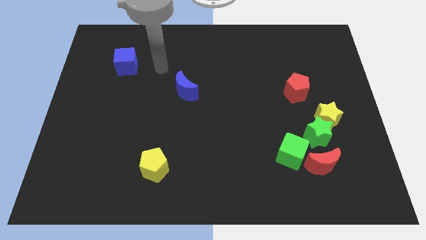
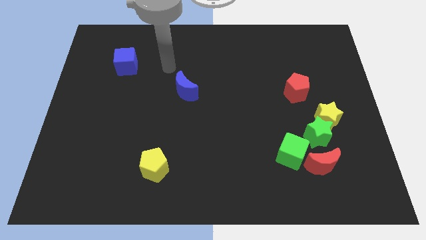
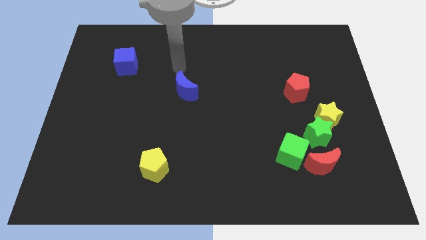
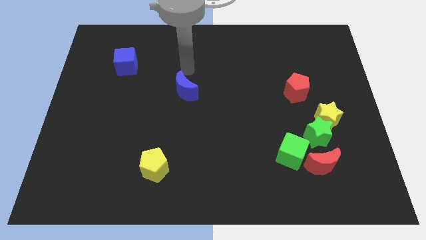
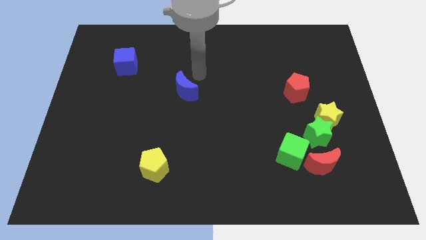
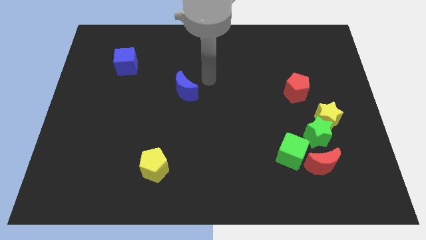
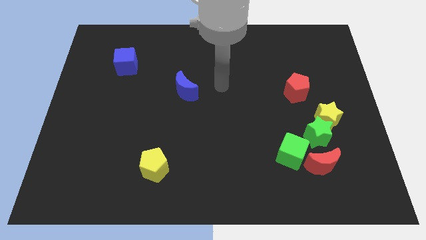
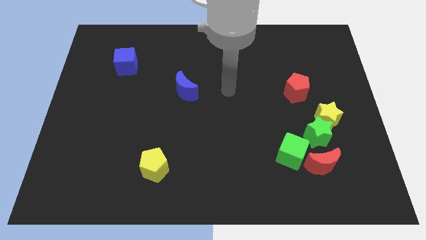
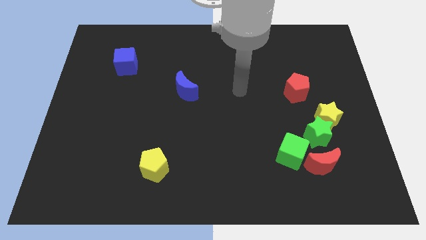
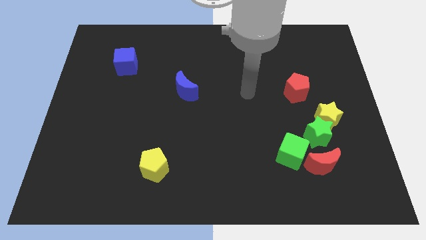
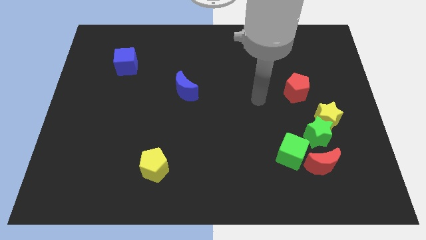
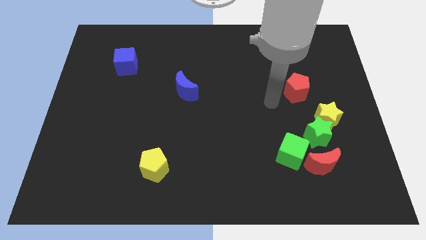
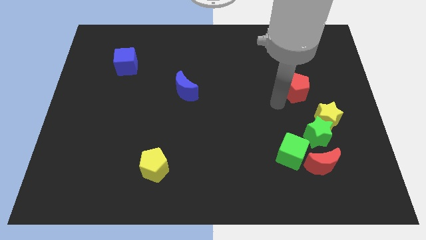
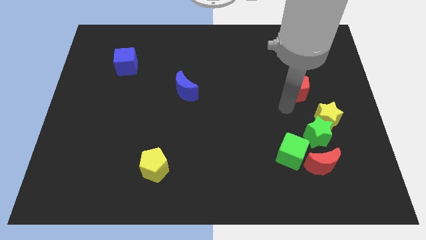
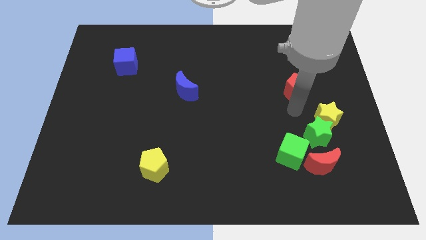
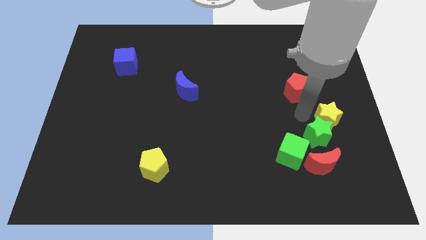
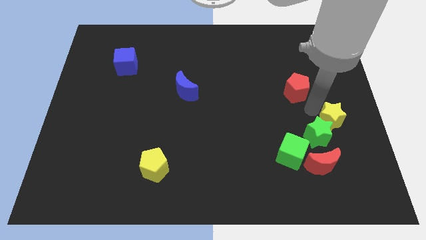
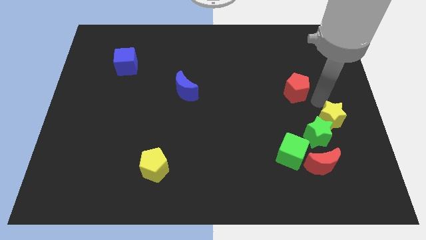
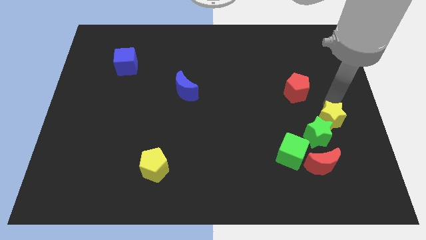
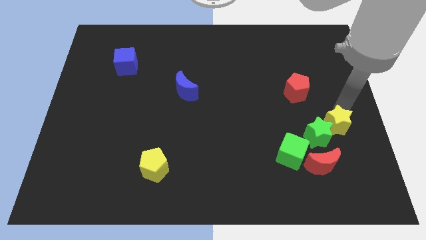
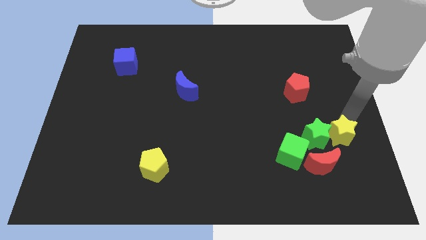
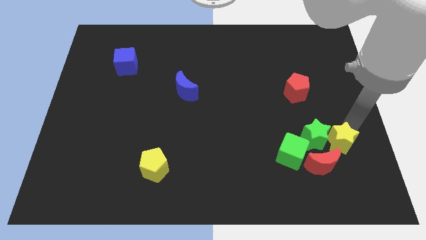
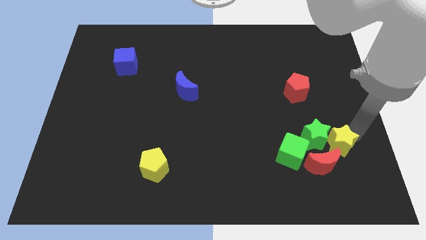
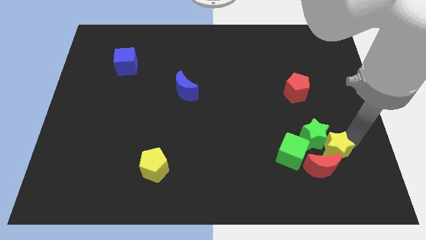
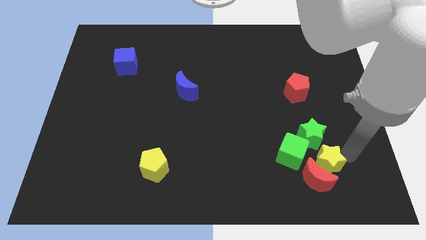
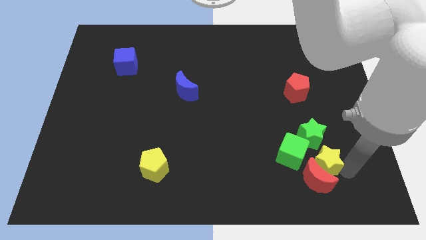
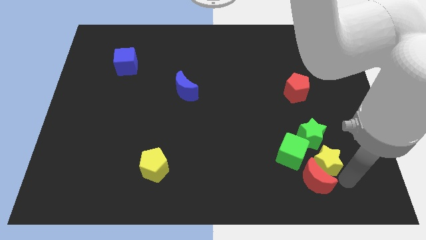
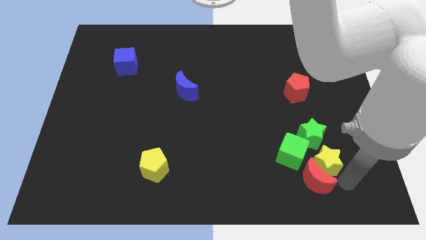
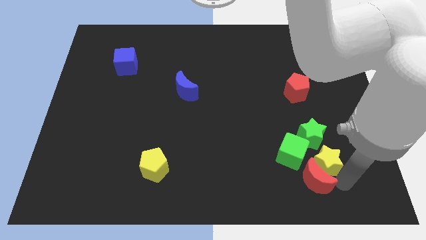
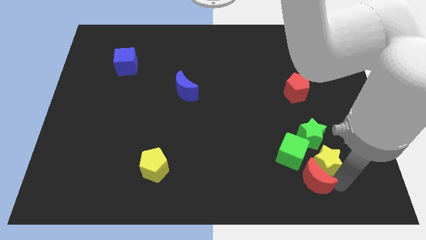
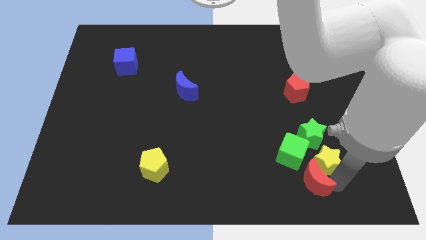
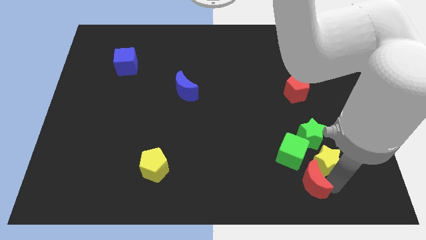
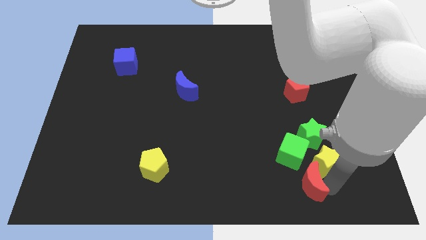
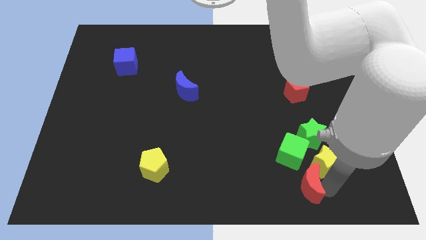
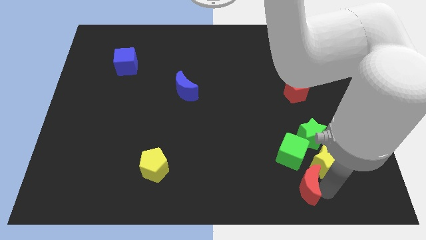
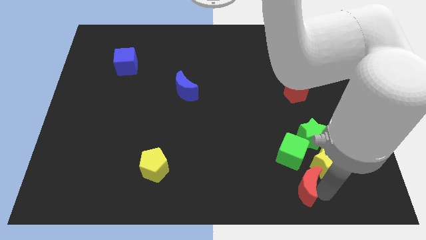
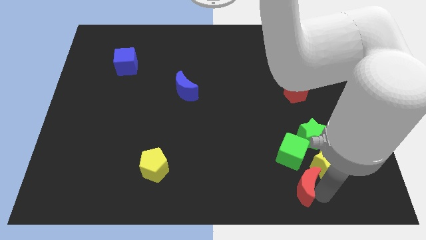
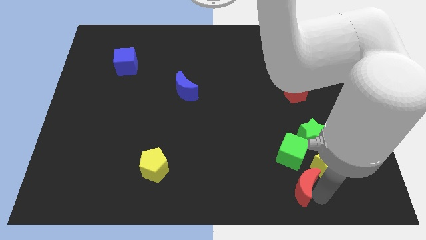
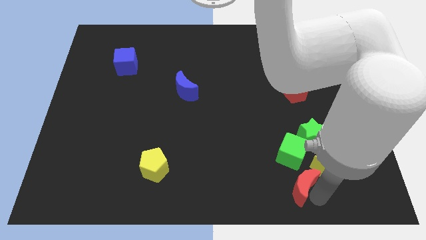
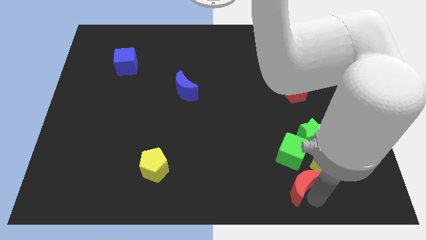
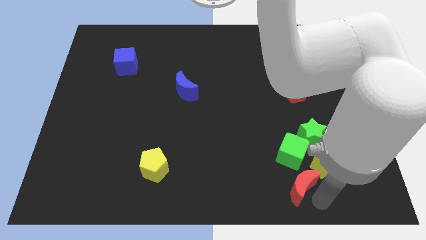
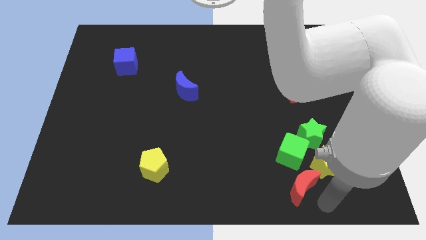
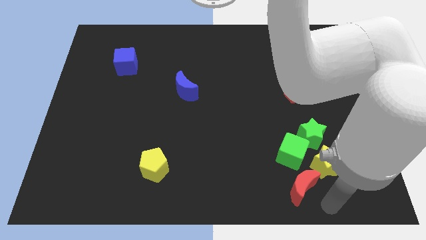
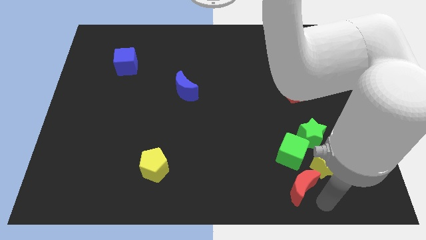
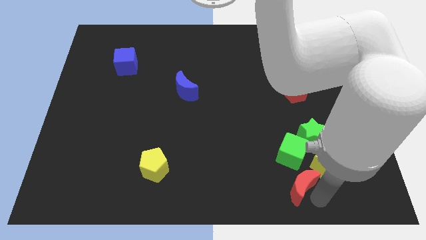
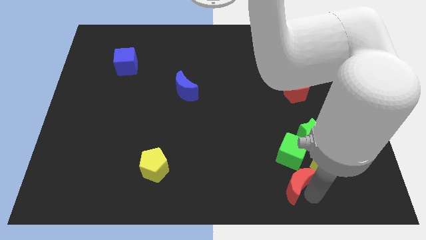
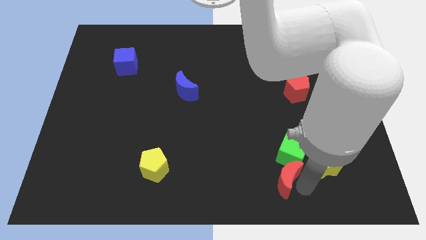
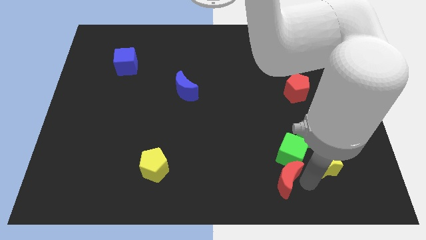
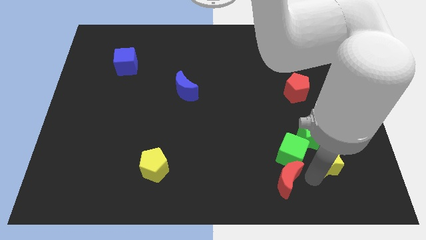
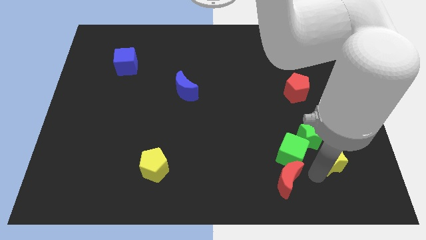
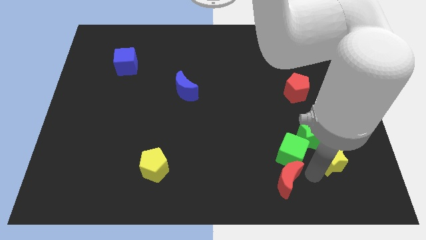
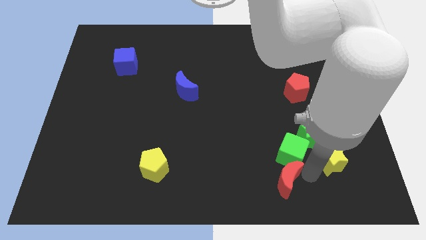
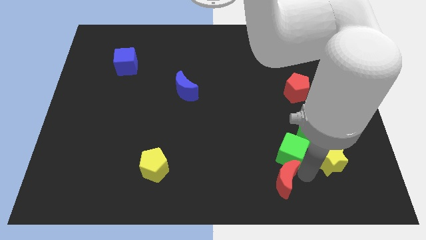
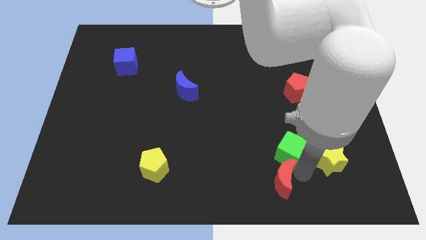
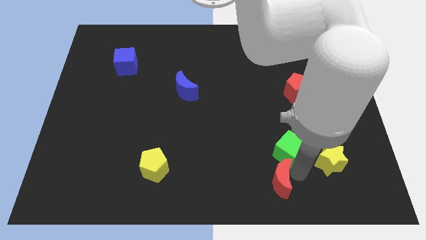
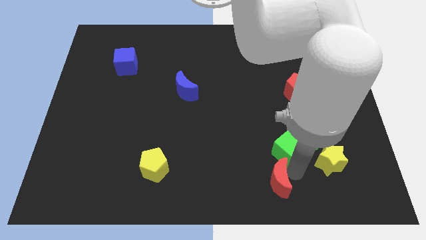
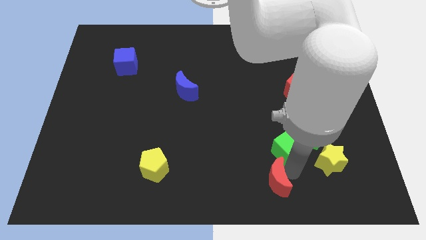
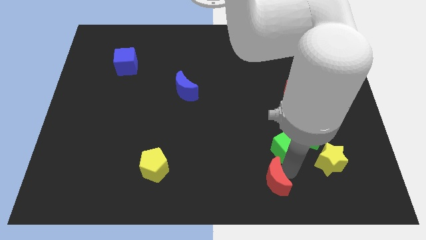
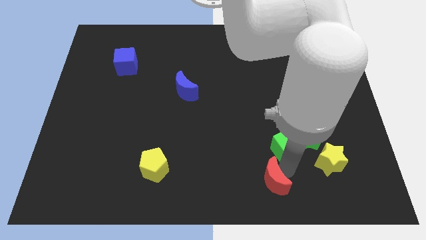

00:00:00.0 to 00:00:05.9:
push the red moon to the bottom

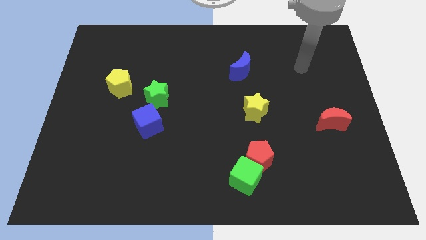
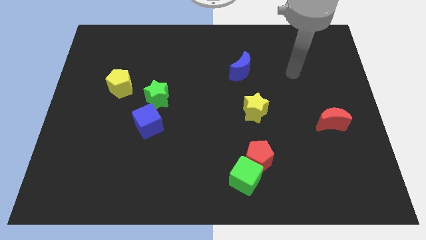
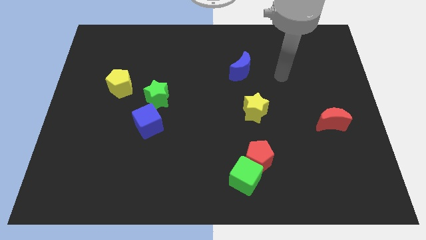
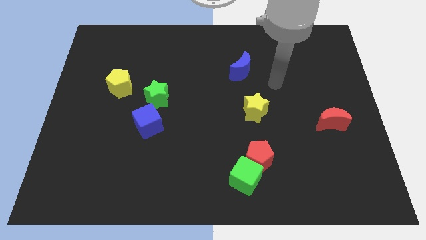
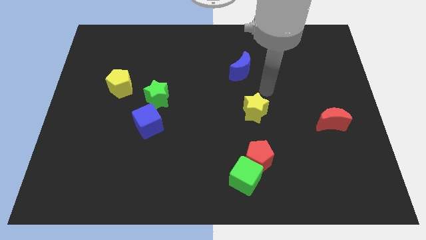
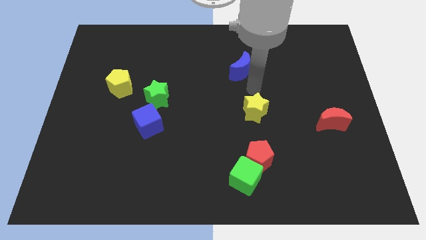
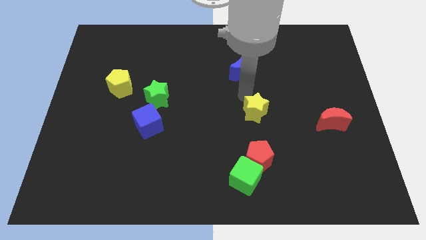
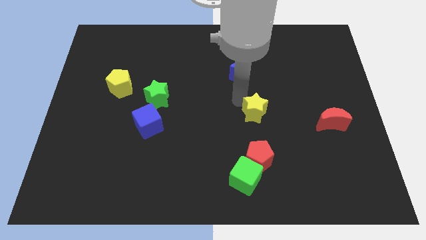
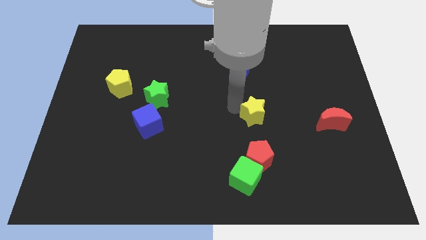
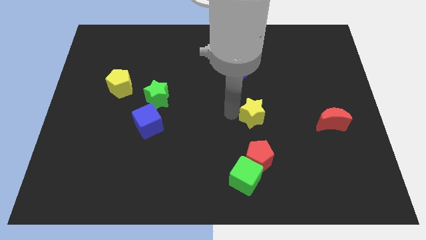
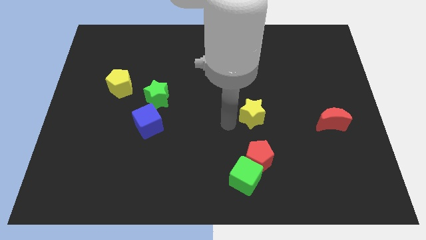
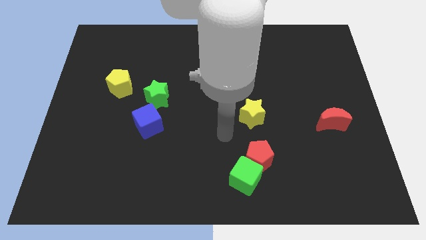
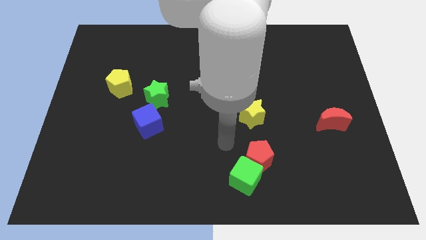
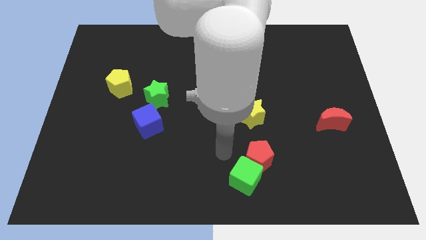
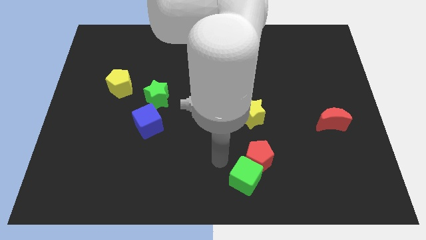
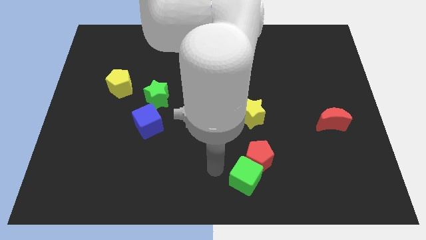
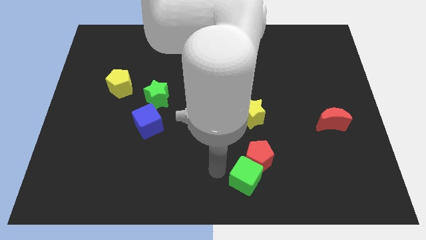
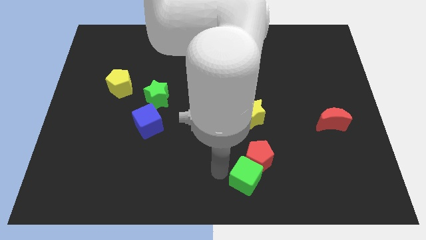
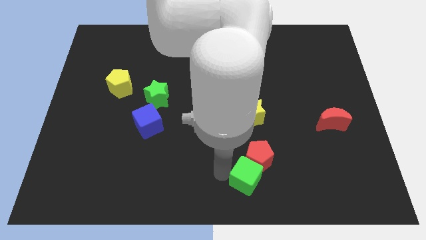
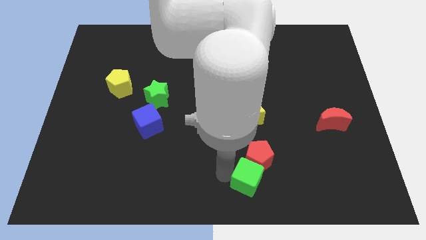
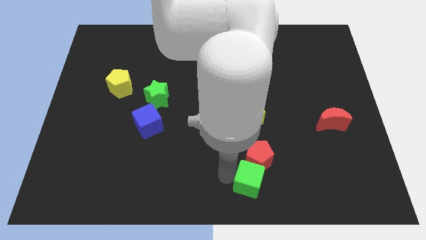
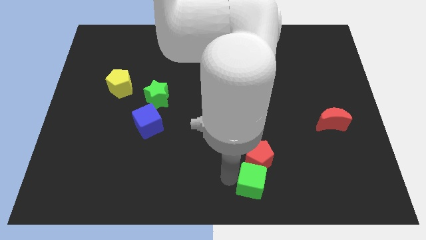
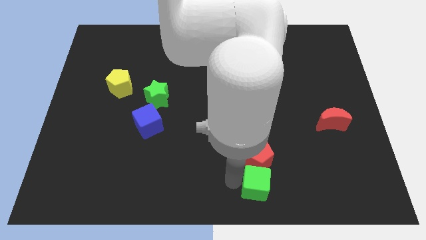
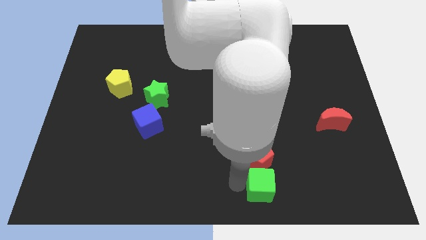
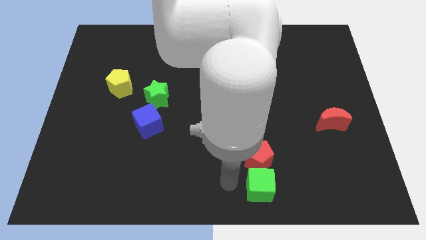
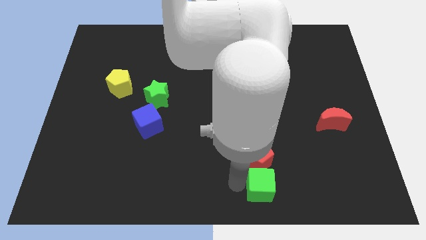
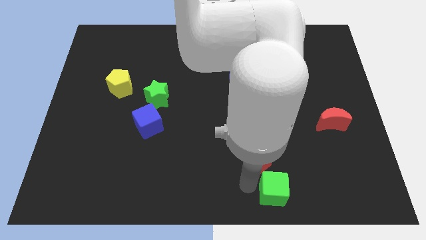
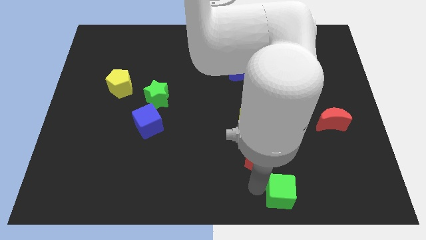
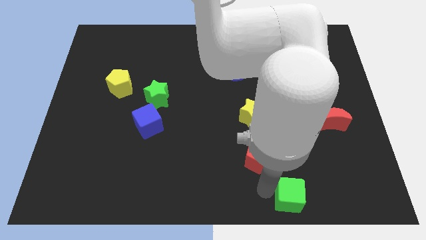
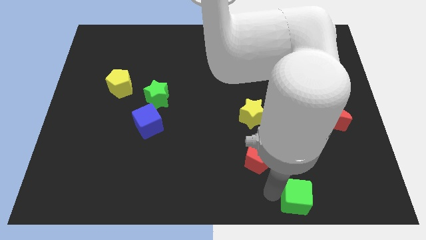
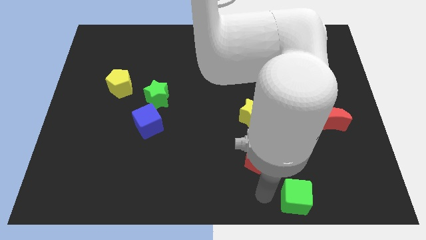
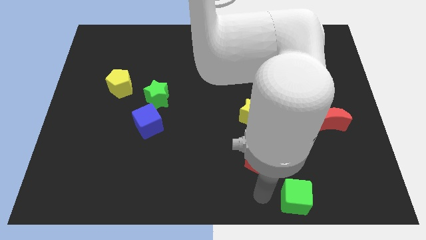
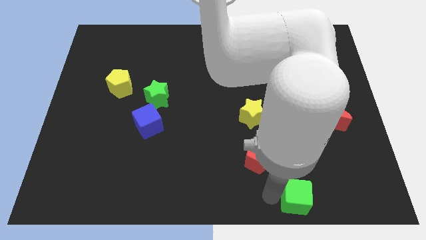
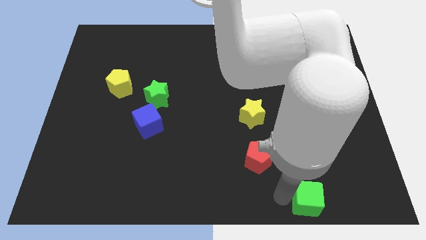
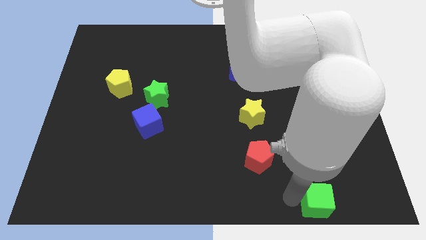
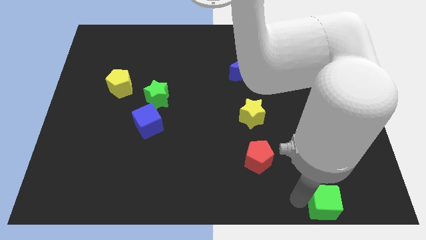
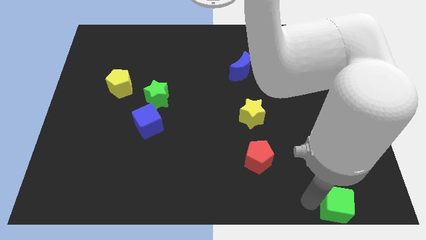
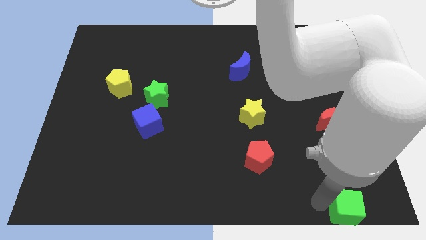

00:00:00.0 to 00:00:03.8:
put the green cube to the lower right corner
